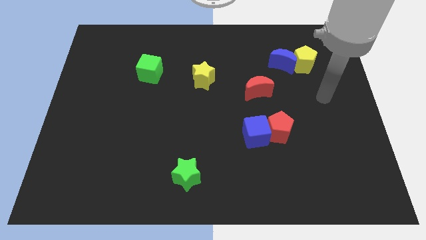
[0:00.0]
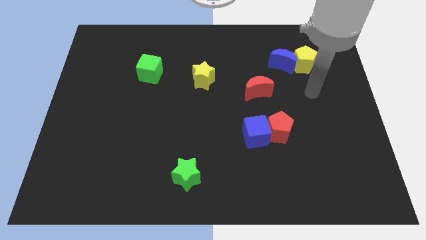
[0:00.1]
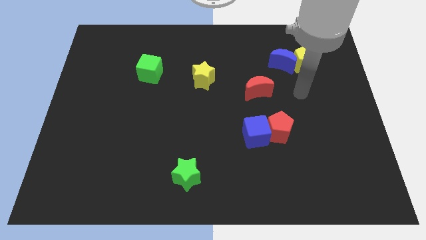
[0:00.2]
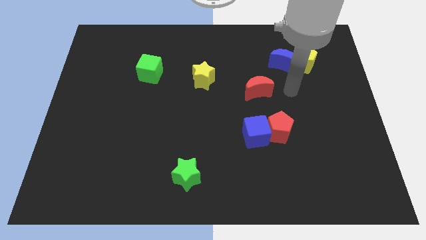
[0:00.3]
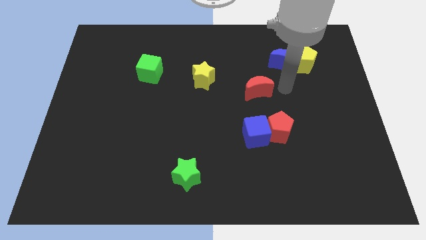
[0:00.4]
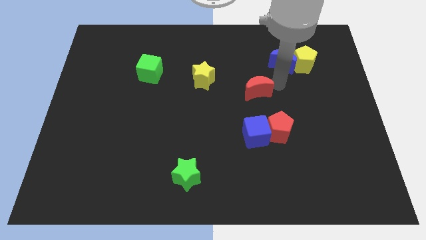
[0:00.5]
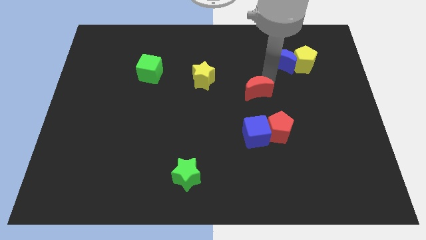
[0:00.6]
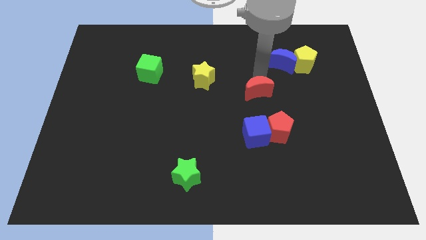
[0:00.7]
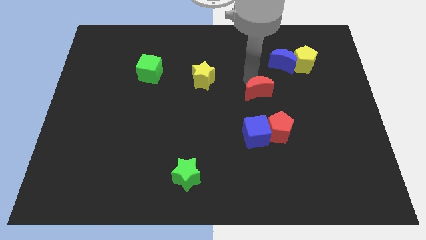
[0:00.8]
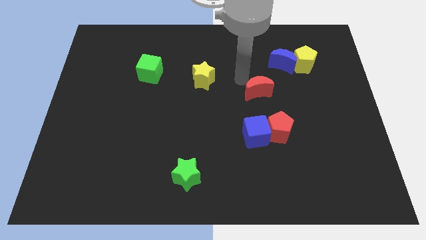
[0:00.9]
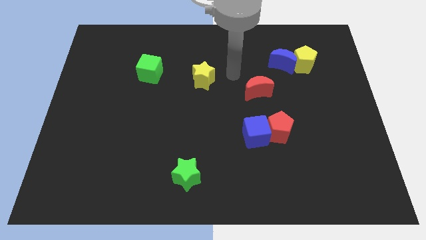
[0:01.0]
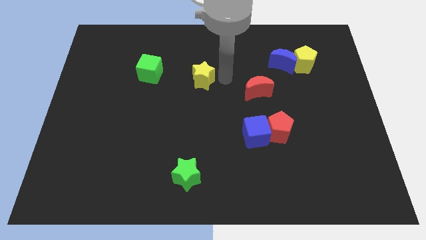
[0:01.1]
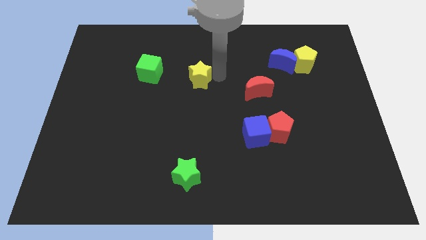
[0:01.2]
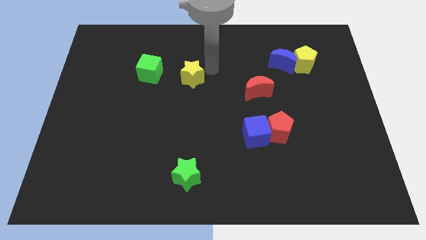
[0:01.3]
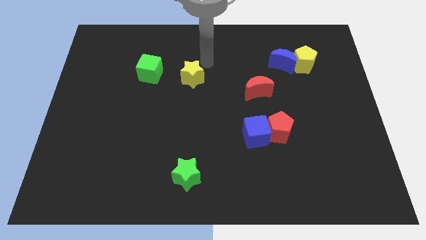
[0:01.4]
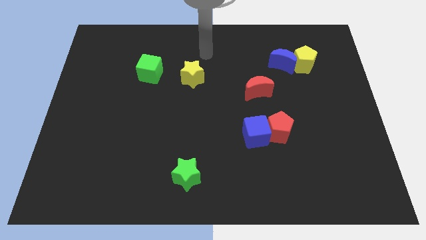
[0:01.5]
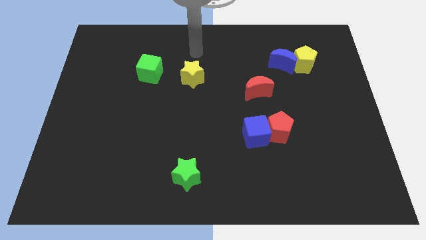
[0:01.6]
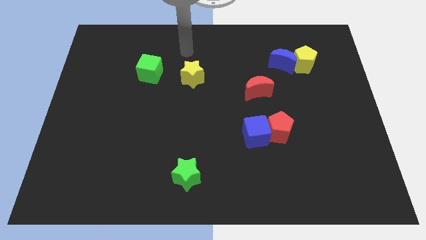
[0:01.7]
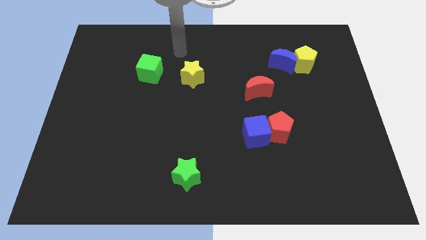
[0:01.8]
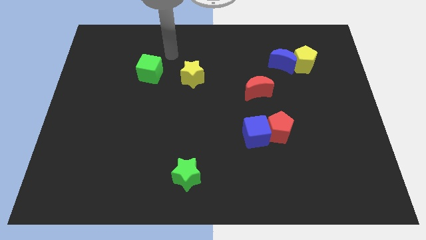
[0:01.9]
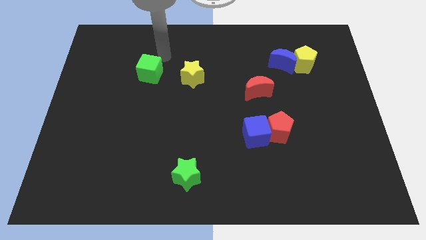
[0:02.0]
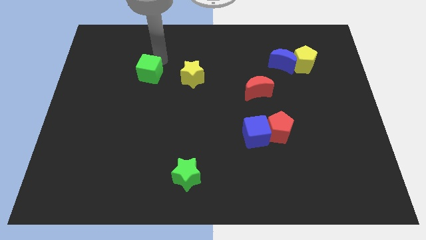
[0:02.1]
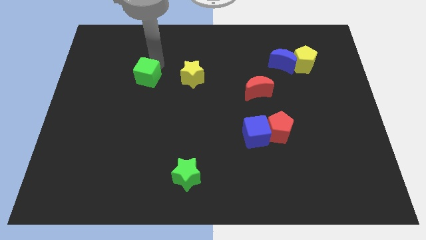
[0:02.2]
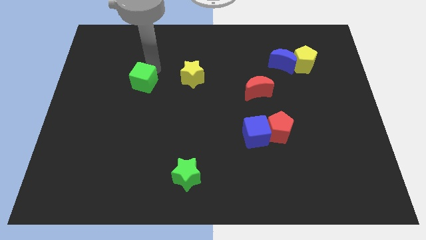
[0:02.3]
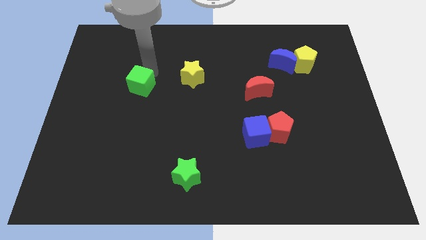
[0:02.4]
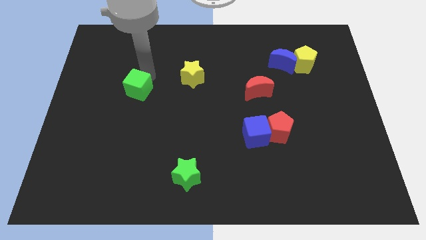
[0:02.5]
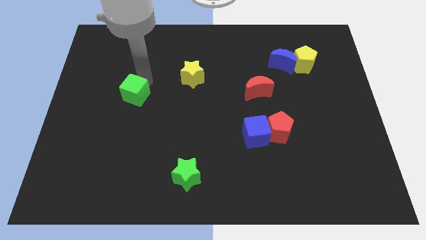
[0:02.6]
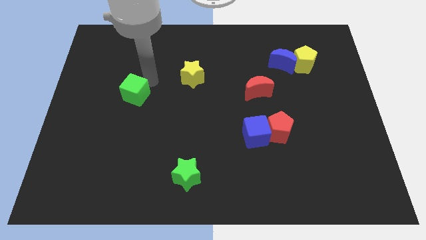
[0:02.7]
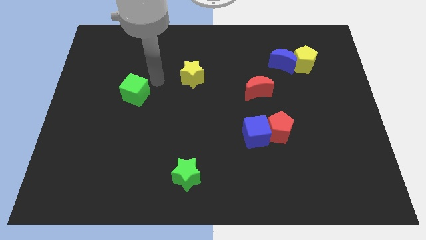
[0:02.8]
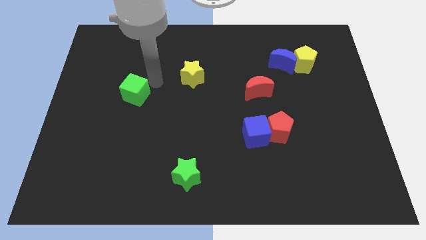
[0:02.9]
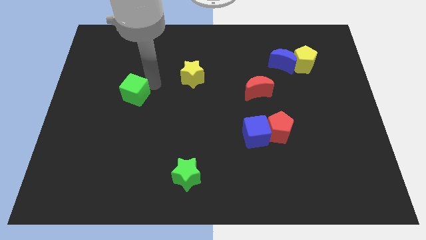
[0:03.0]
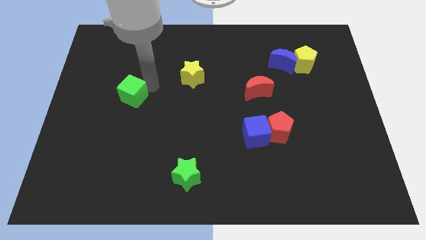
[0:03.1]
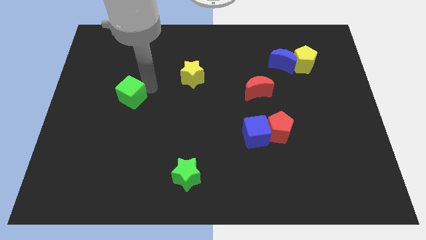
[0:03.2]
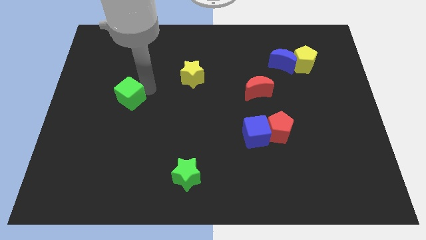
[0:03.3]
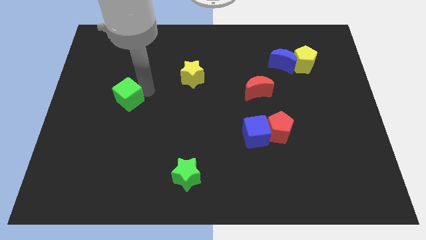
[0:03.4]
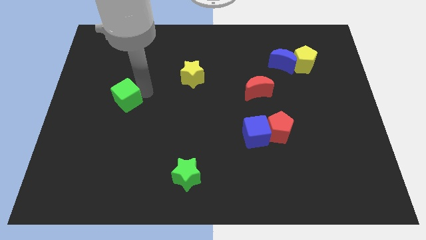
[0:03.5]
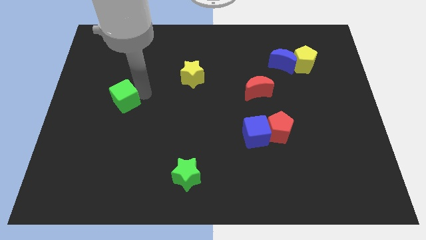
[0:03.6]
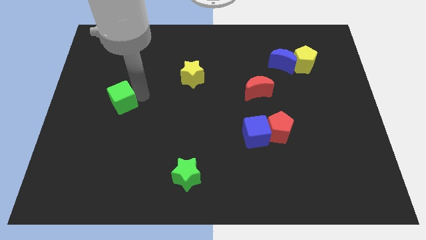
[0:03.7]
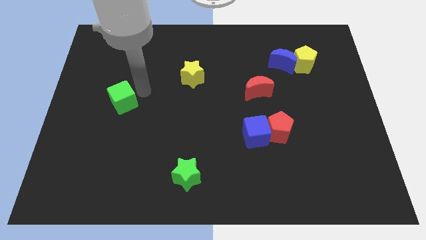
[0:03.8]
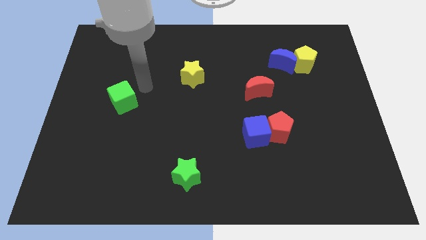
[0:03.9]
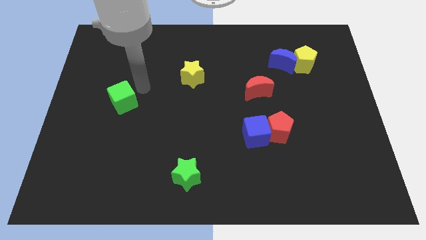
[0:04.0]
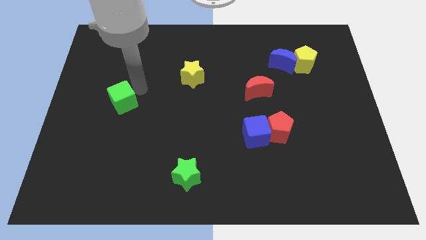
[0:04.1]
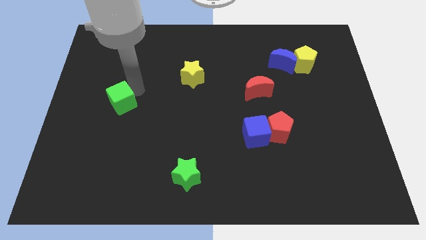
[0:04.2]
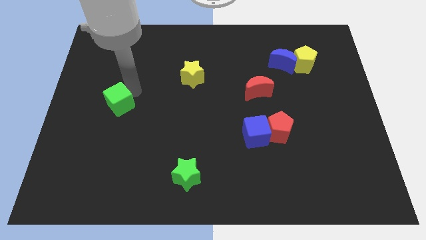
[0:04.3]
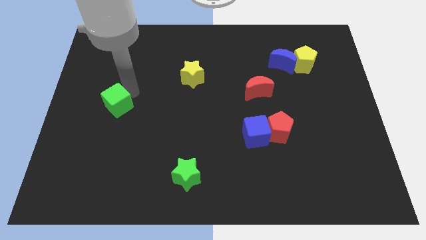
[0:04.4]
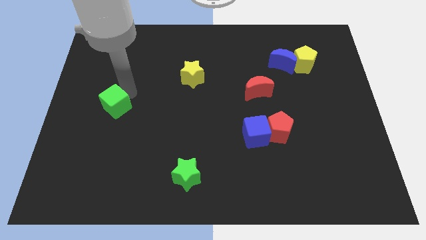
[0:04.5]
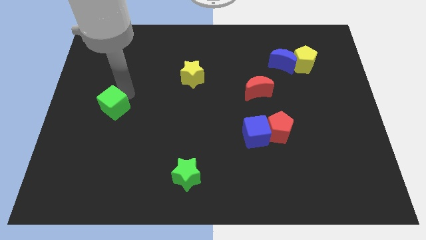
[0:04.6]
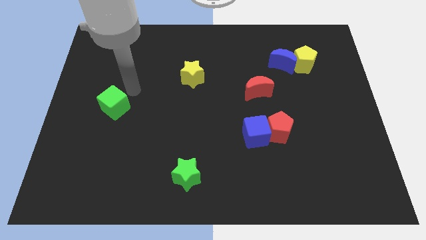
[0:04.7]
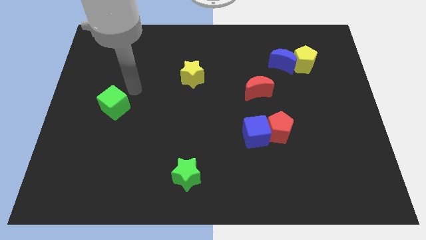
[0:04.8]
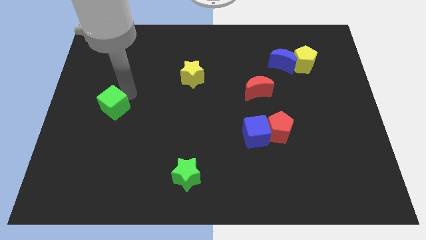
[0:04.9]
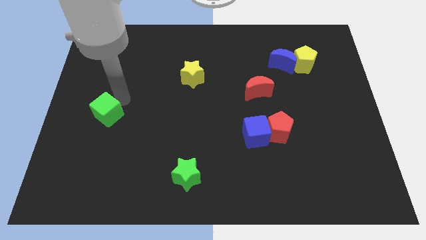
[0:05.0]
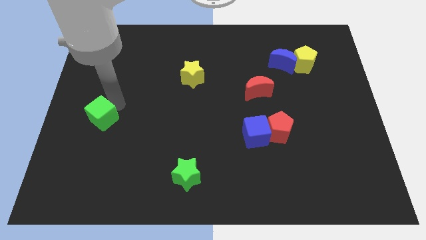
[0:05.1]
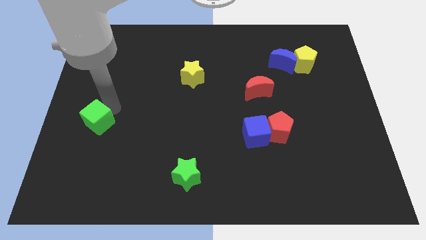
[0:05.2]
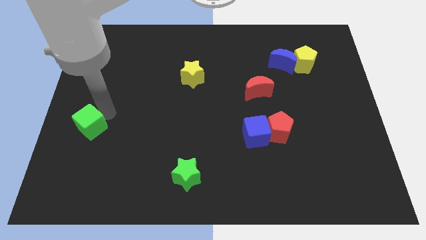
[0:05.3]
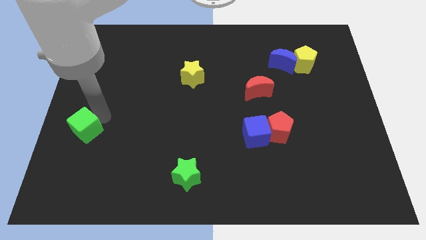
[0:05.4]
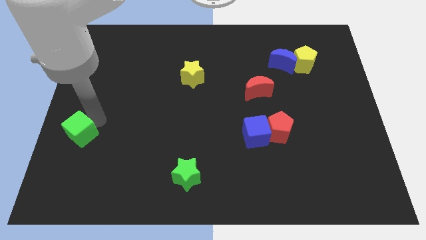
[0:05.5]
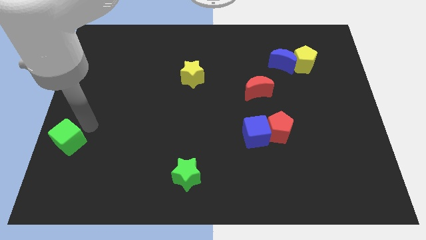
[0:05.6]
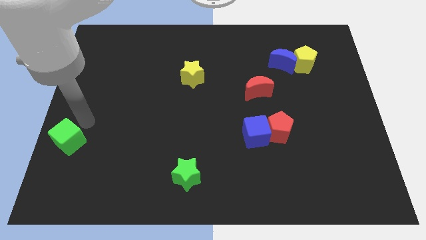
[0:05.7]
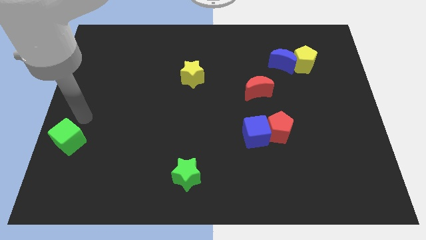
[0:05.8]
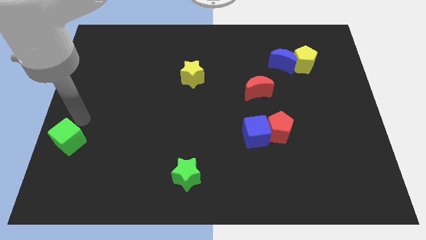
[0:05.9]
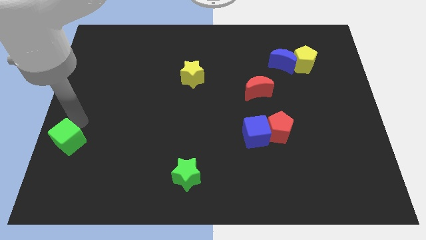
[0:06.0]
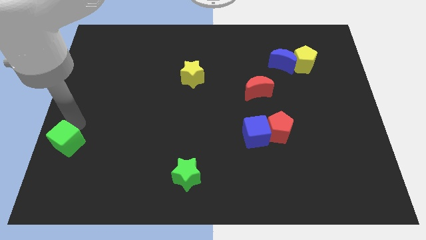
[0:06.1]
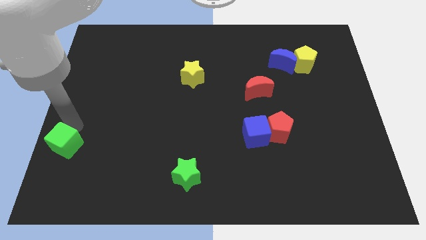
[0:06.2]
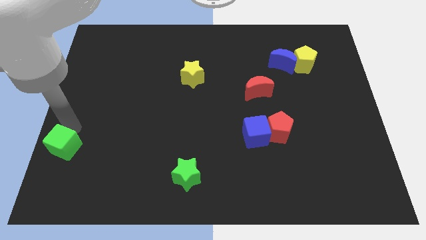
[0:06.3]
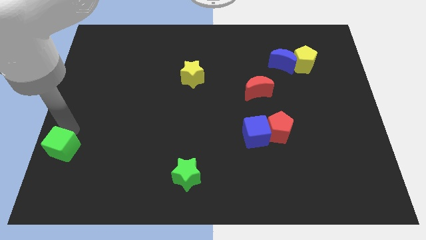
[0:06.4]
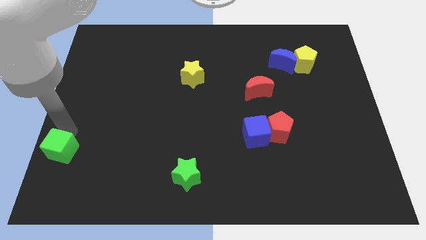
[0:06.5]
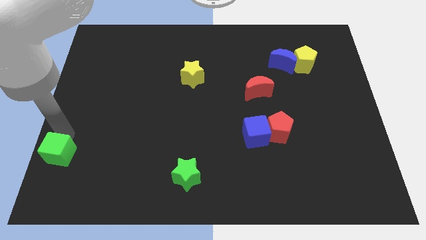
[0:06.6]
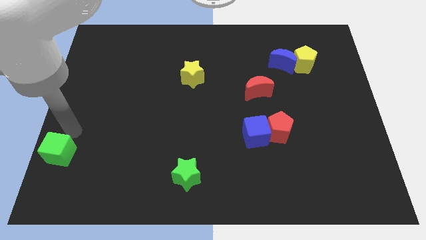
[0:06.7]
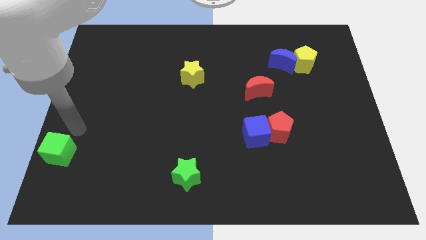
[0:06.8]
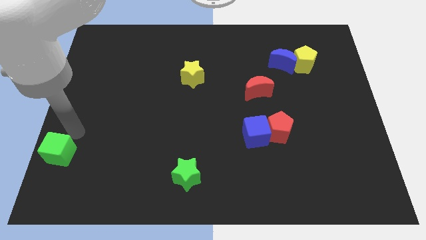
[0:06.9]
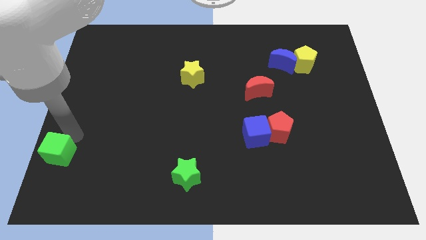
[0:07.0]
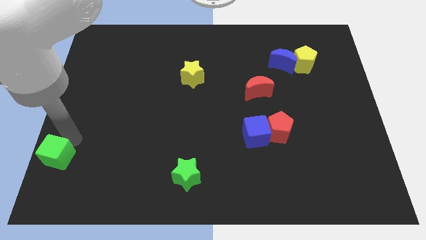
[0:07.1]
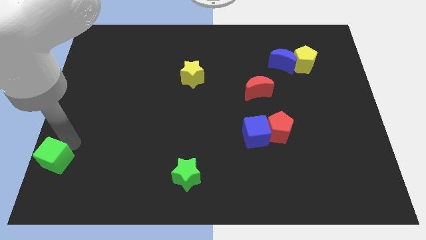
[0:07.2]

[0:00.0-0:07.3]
put the green cube to the lower left corner
